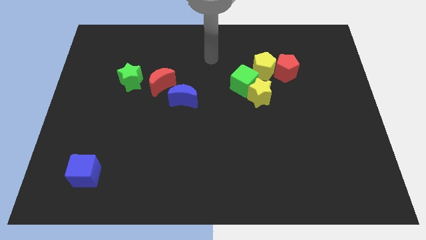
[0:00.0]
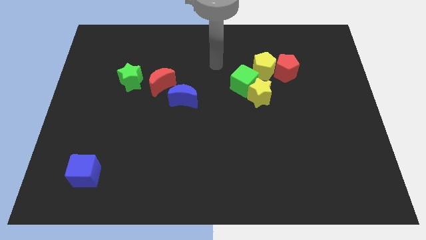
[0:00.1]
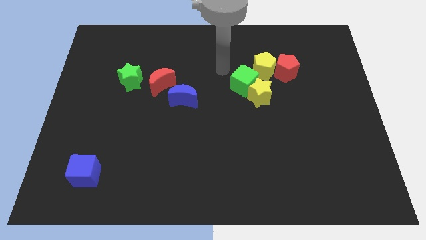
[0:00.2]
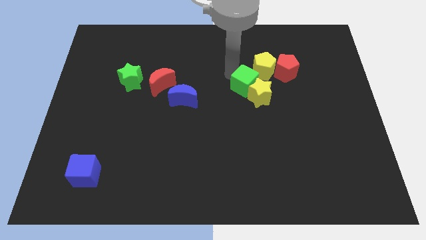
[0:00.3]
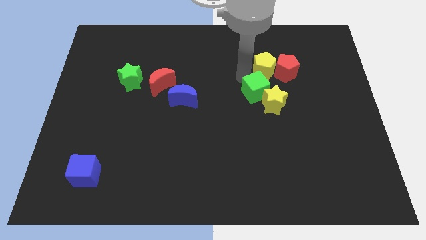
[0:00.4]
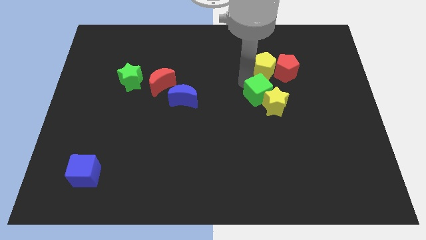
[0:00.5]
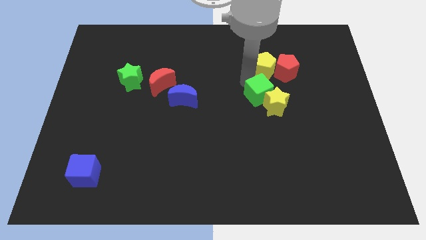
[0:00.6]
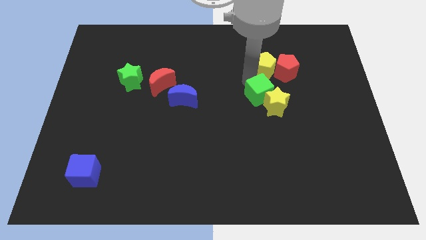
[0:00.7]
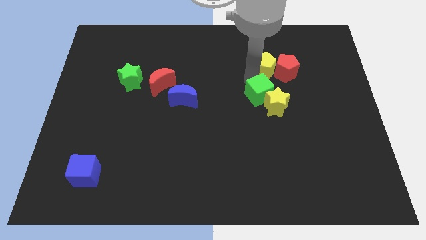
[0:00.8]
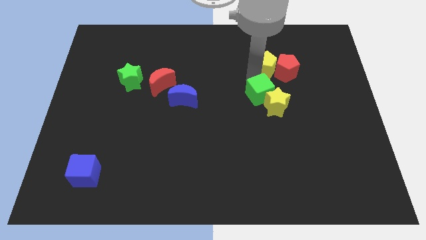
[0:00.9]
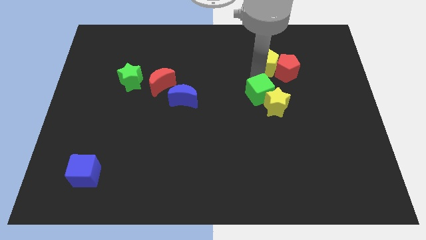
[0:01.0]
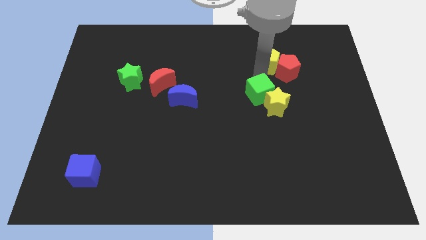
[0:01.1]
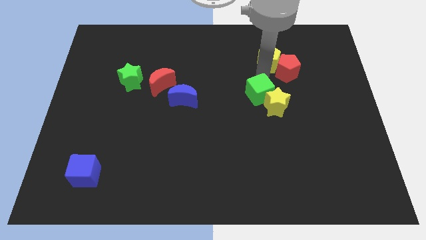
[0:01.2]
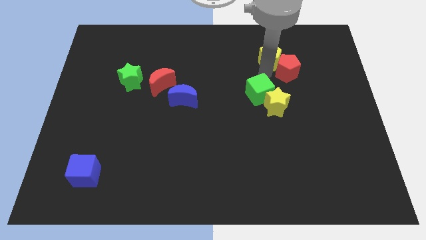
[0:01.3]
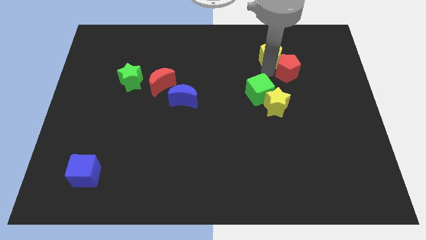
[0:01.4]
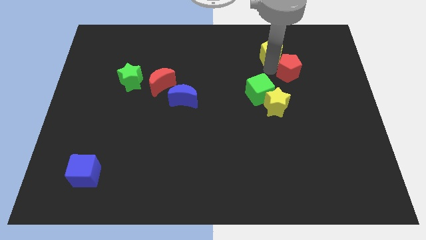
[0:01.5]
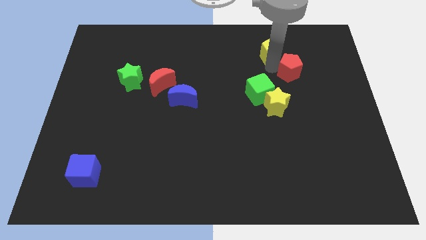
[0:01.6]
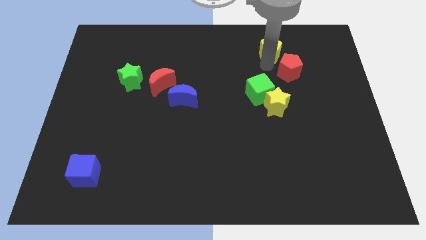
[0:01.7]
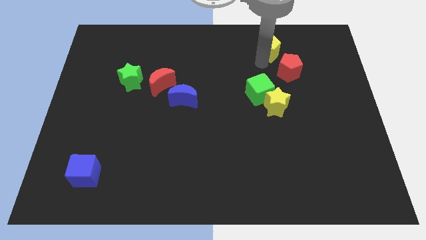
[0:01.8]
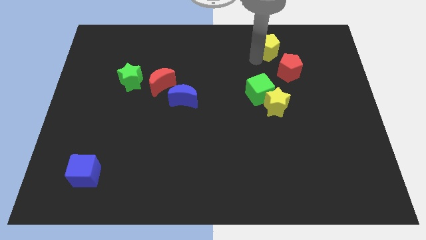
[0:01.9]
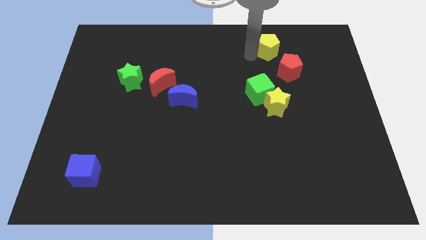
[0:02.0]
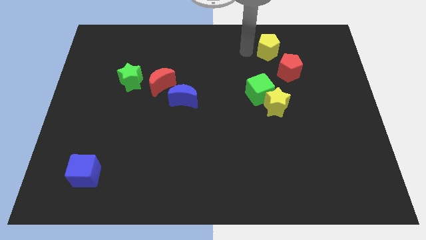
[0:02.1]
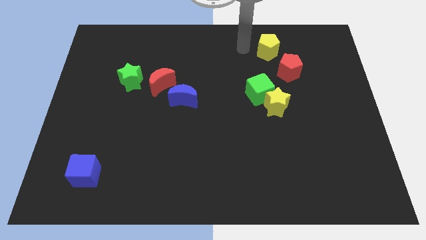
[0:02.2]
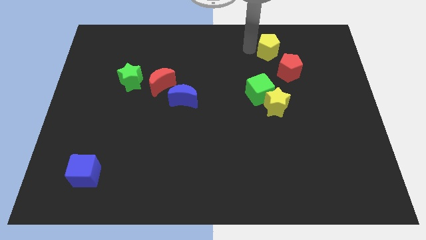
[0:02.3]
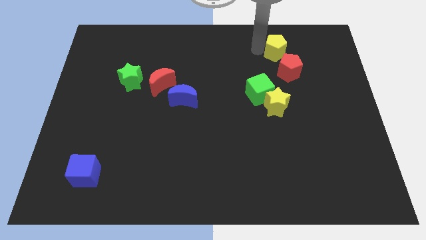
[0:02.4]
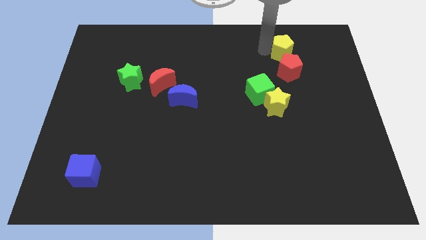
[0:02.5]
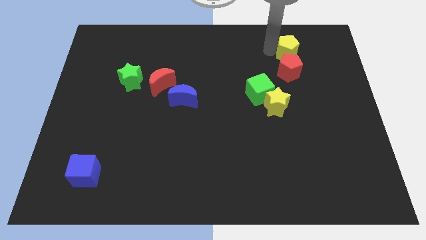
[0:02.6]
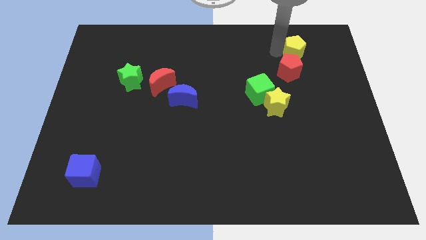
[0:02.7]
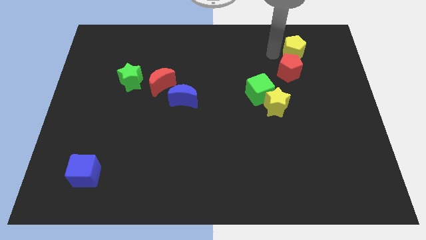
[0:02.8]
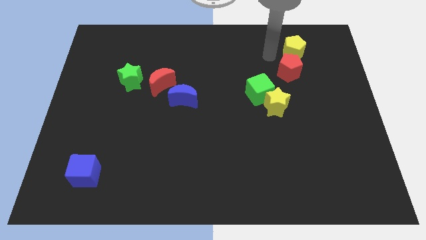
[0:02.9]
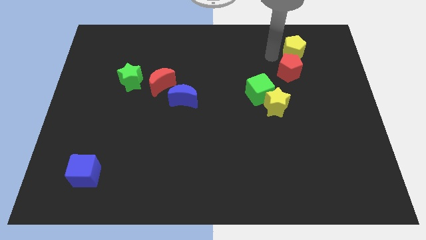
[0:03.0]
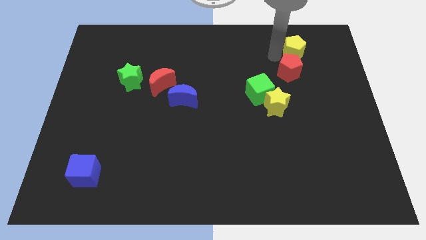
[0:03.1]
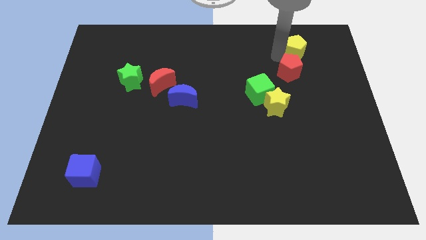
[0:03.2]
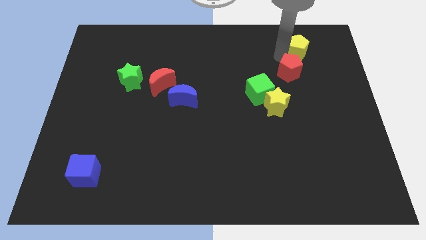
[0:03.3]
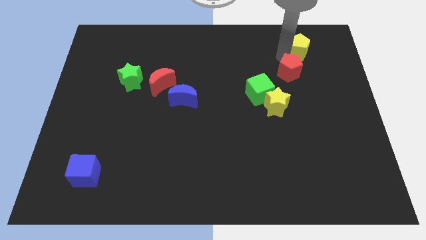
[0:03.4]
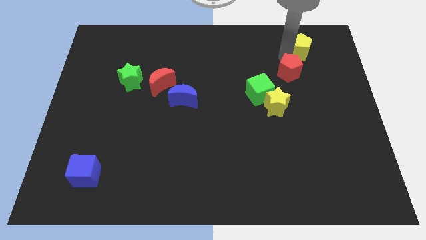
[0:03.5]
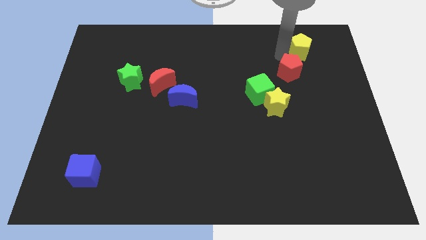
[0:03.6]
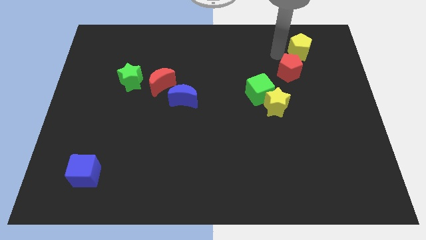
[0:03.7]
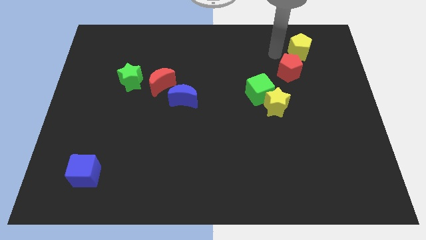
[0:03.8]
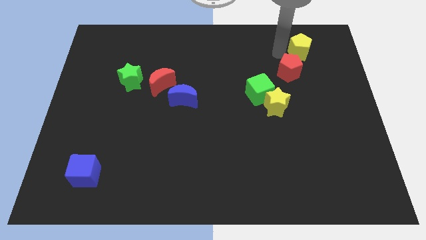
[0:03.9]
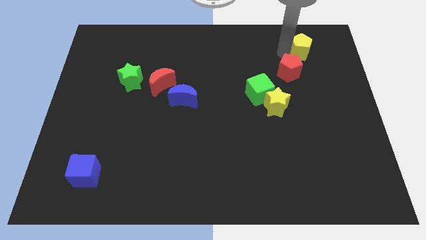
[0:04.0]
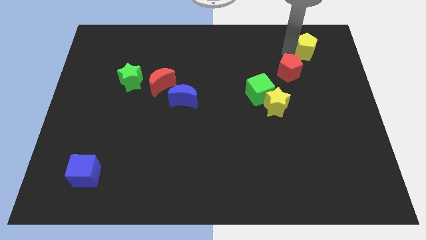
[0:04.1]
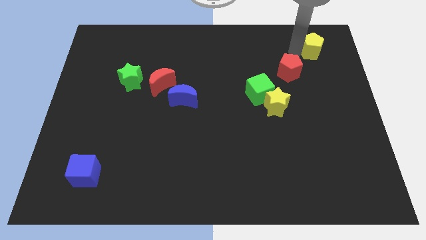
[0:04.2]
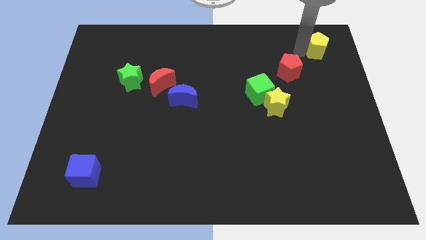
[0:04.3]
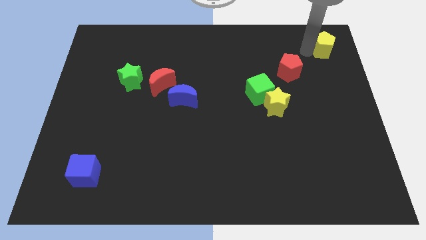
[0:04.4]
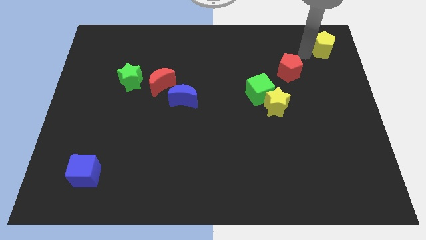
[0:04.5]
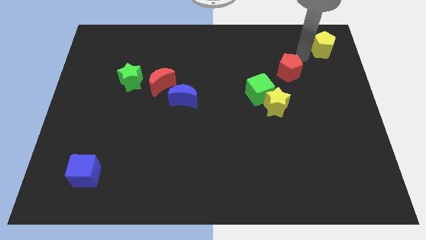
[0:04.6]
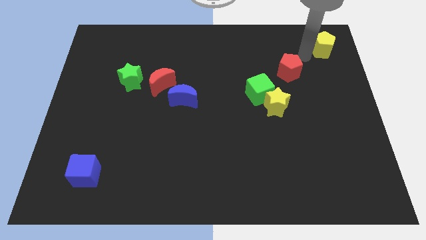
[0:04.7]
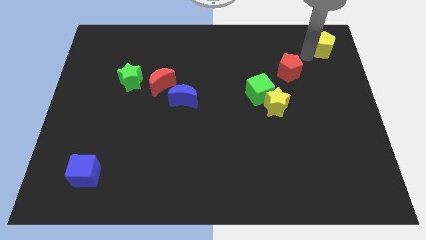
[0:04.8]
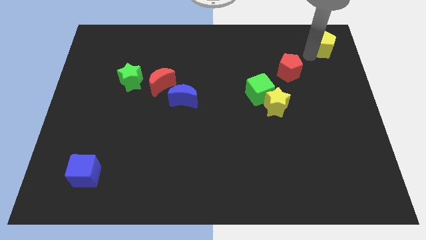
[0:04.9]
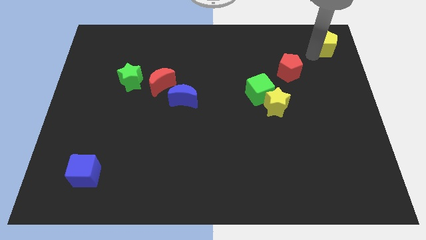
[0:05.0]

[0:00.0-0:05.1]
slide the yellow pentagon to the top right

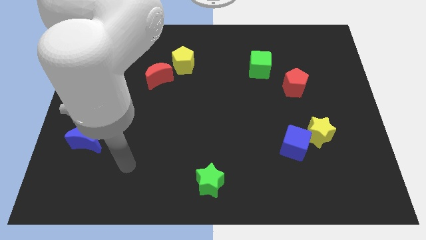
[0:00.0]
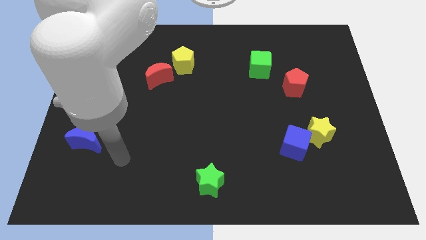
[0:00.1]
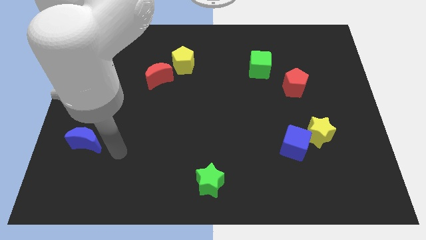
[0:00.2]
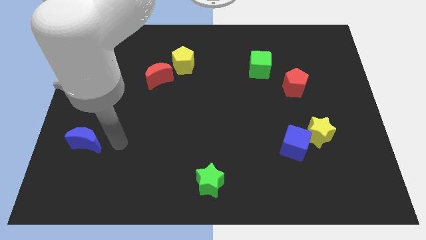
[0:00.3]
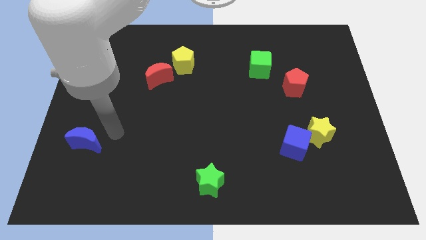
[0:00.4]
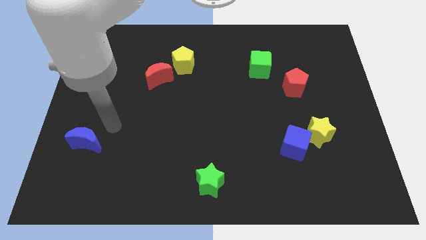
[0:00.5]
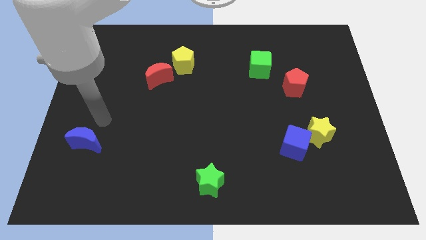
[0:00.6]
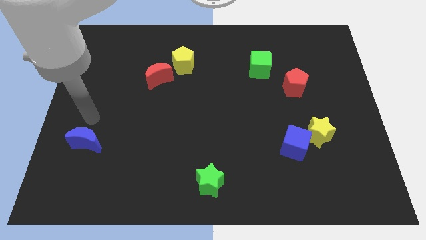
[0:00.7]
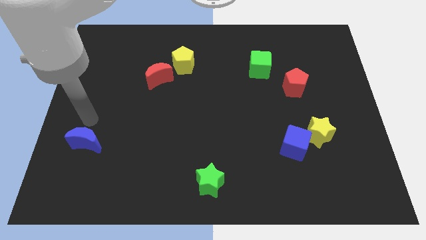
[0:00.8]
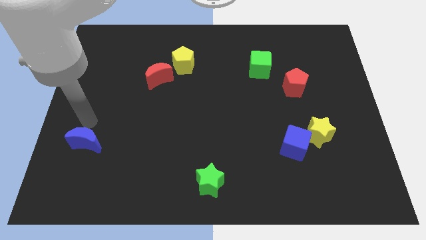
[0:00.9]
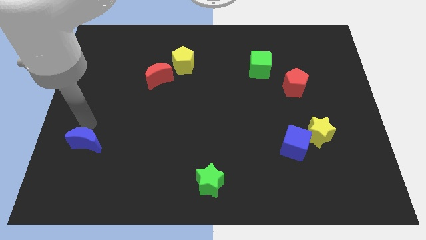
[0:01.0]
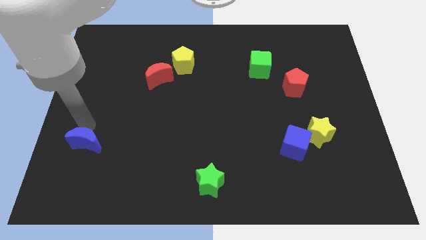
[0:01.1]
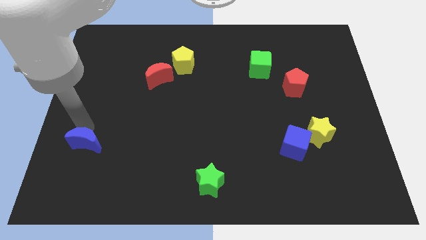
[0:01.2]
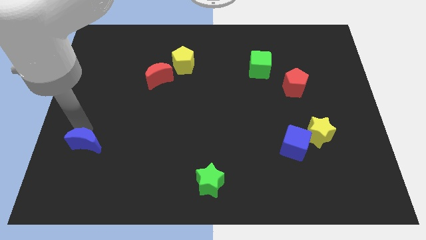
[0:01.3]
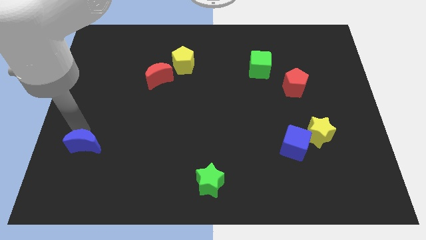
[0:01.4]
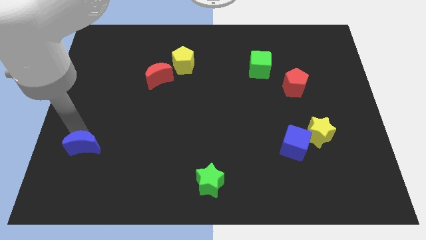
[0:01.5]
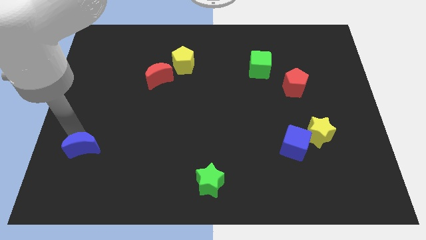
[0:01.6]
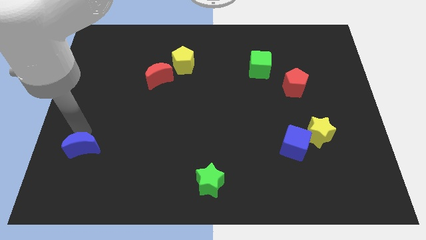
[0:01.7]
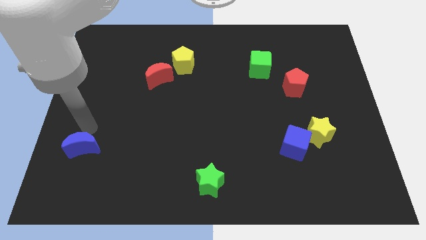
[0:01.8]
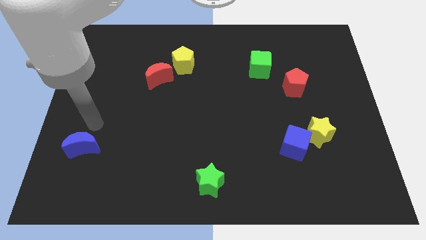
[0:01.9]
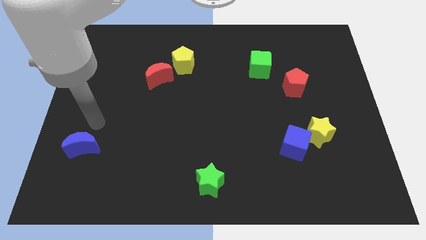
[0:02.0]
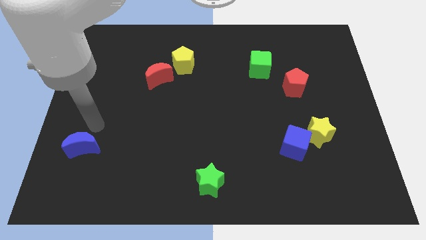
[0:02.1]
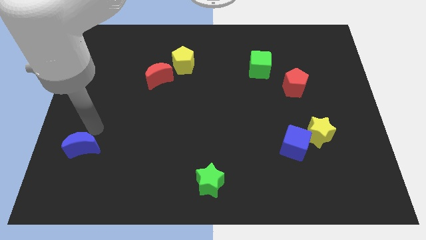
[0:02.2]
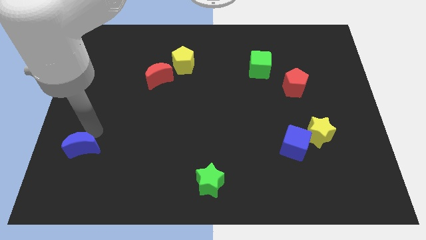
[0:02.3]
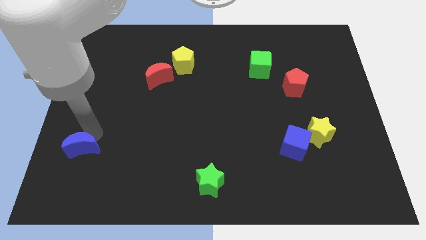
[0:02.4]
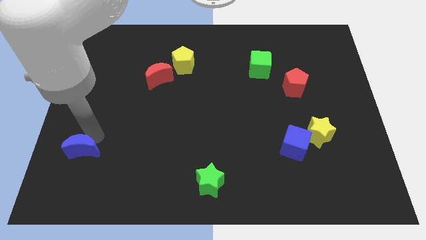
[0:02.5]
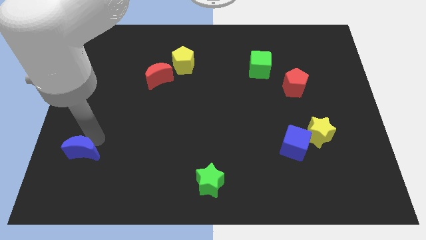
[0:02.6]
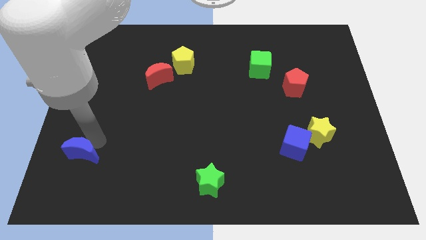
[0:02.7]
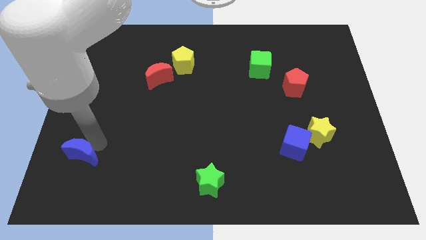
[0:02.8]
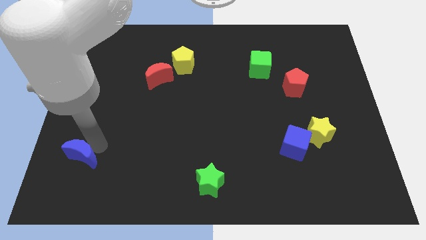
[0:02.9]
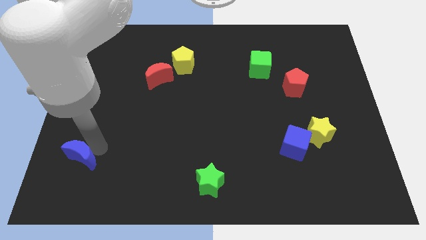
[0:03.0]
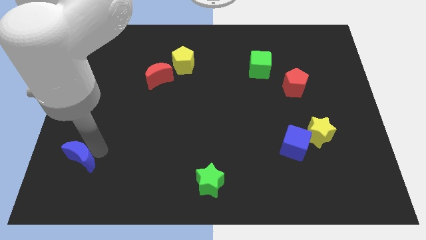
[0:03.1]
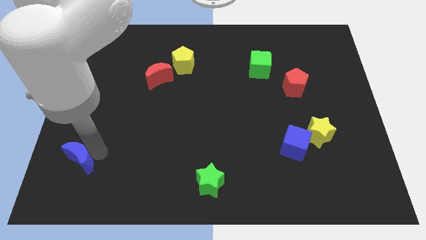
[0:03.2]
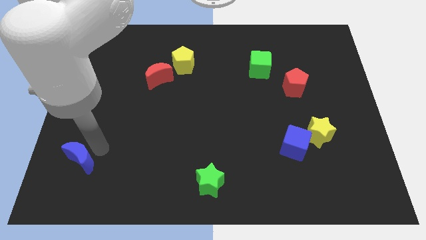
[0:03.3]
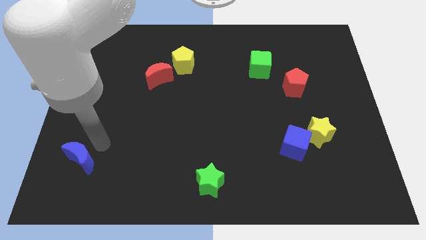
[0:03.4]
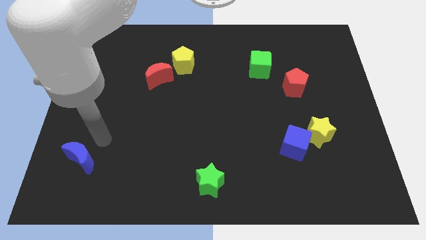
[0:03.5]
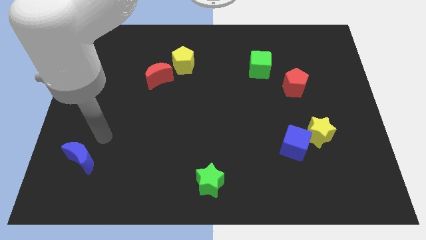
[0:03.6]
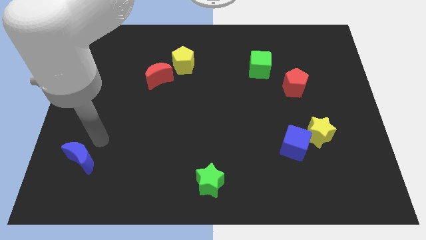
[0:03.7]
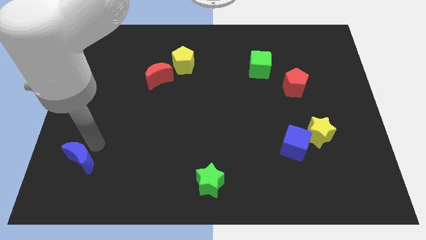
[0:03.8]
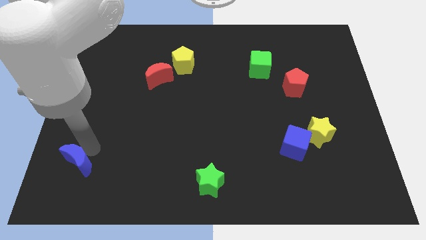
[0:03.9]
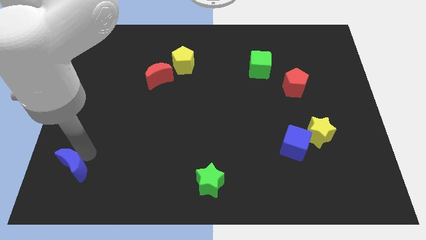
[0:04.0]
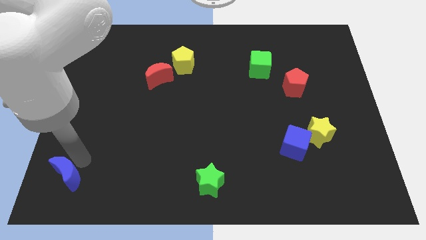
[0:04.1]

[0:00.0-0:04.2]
move the blue moon to the lower left corner
